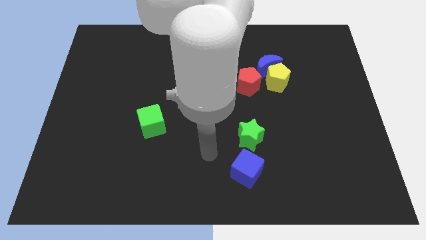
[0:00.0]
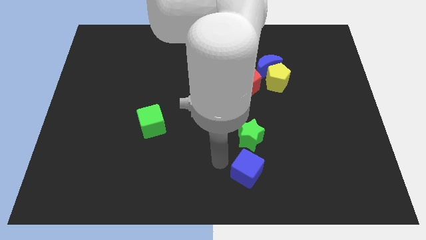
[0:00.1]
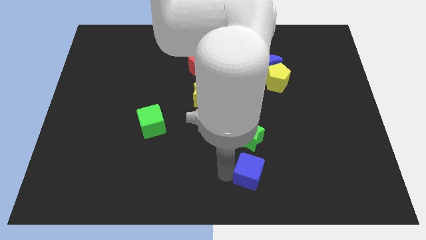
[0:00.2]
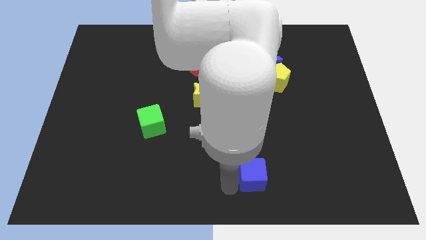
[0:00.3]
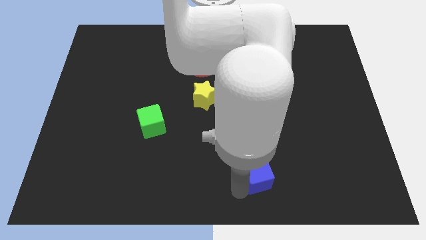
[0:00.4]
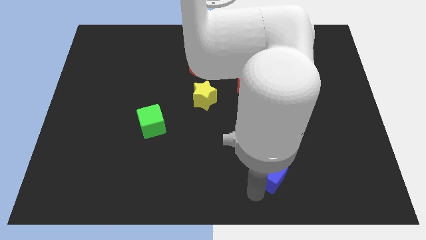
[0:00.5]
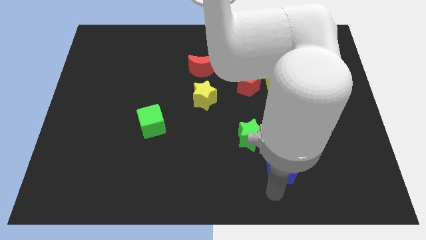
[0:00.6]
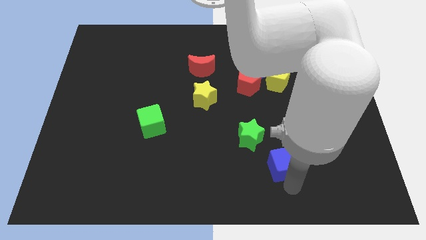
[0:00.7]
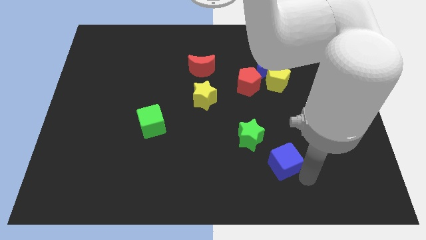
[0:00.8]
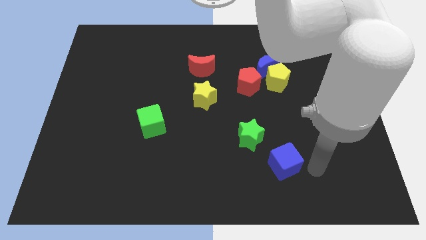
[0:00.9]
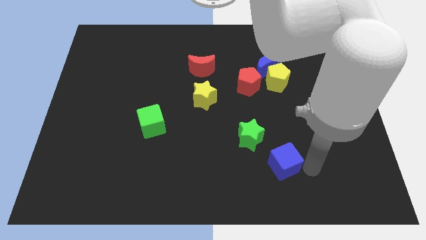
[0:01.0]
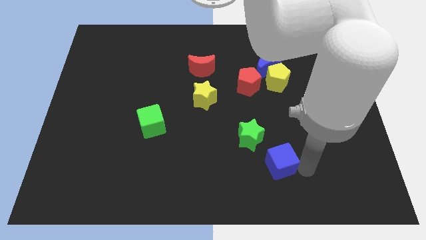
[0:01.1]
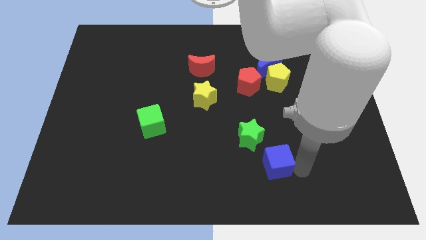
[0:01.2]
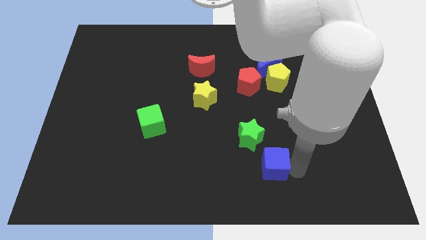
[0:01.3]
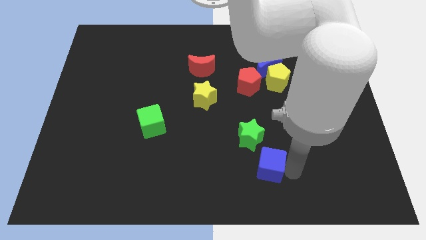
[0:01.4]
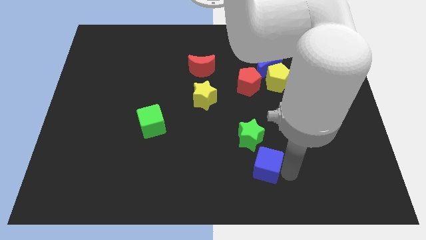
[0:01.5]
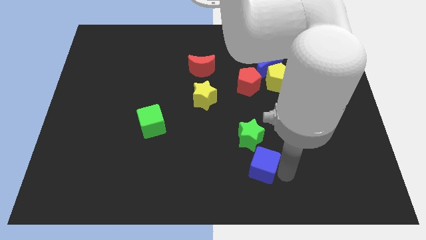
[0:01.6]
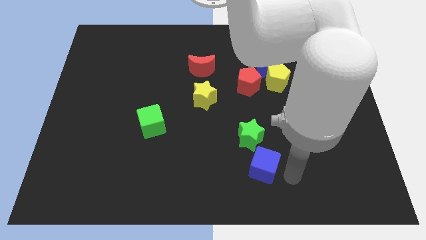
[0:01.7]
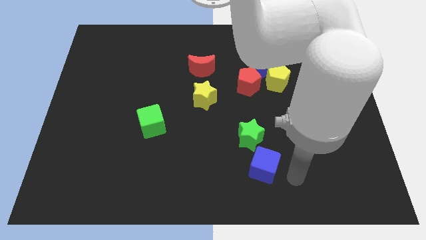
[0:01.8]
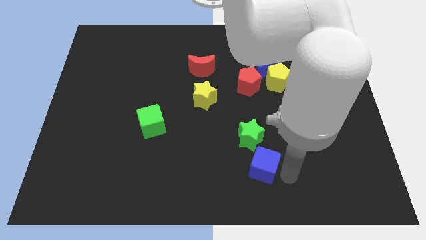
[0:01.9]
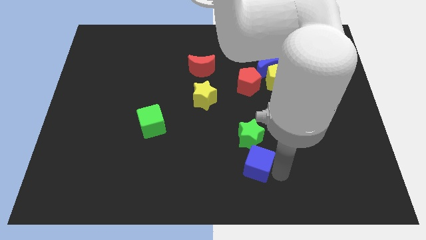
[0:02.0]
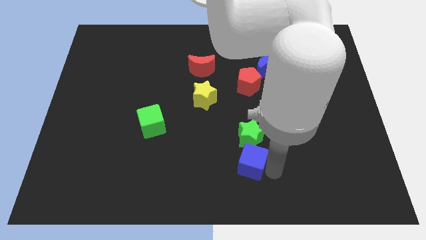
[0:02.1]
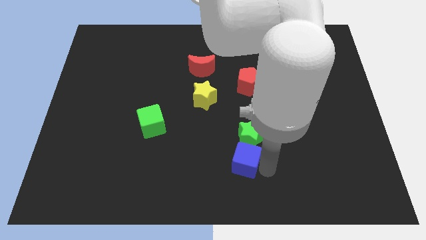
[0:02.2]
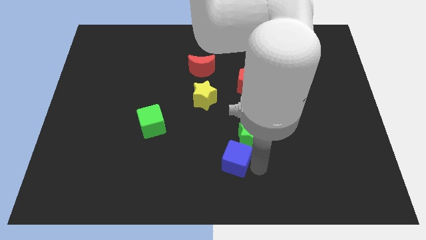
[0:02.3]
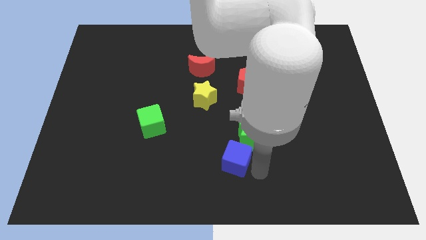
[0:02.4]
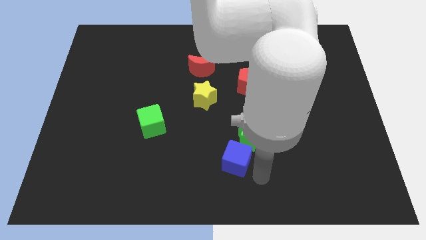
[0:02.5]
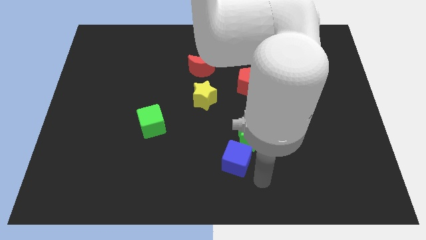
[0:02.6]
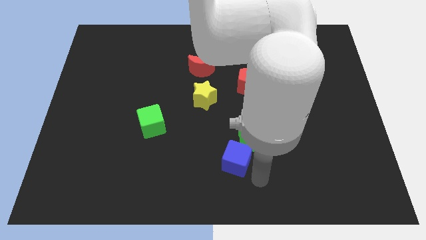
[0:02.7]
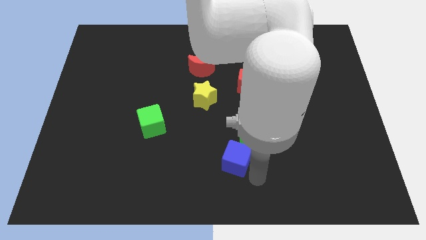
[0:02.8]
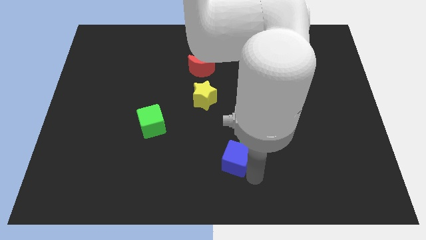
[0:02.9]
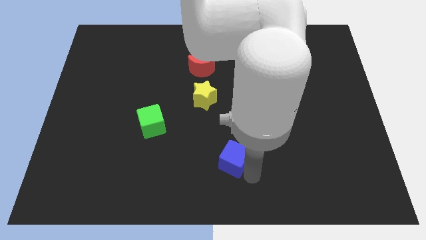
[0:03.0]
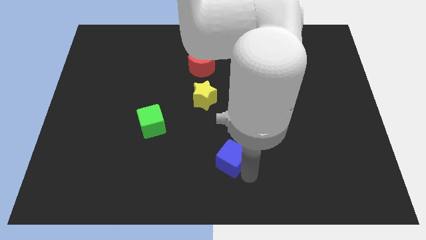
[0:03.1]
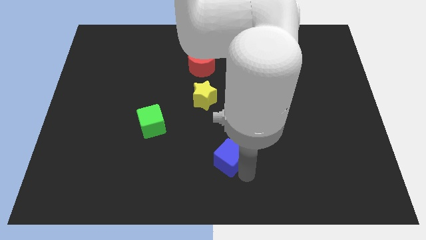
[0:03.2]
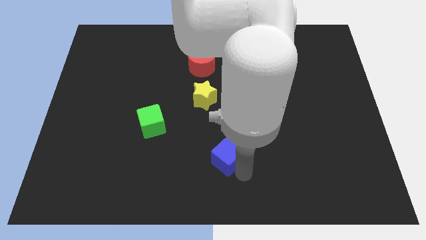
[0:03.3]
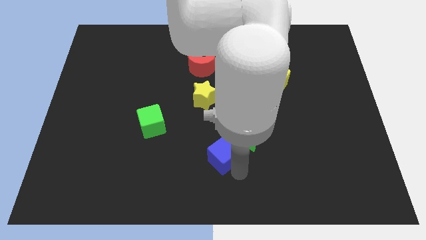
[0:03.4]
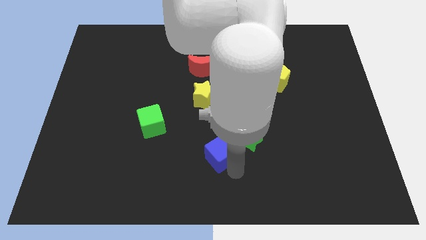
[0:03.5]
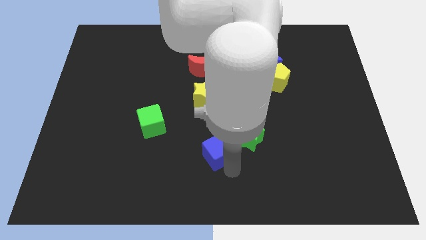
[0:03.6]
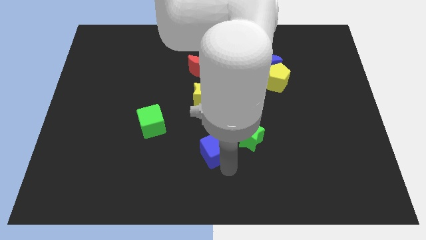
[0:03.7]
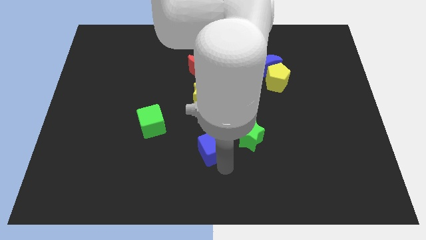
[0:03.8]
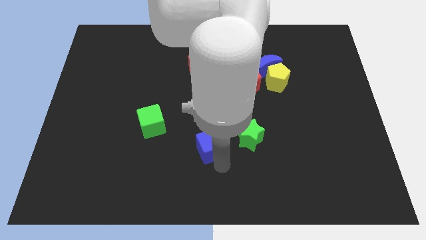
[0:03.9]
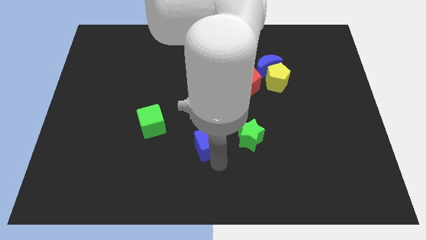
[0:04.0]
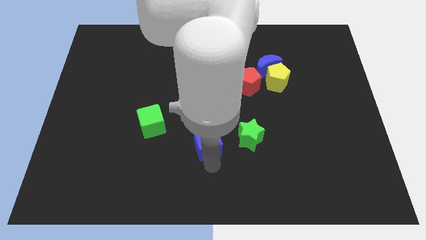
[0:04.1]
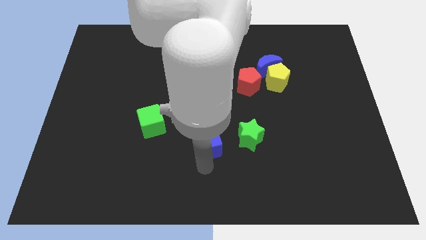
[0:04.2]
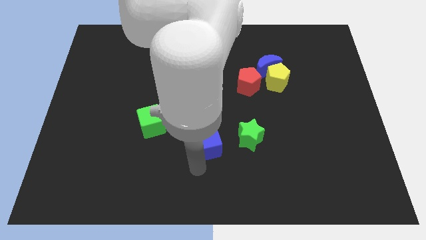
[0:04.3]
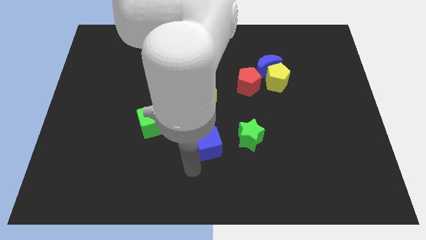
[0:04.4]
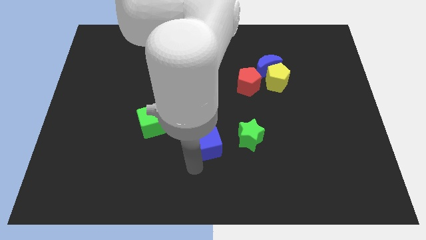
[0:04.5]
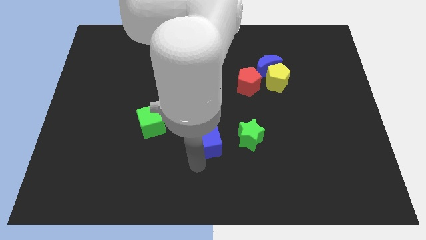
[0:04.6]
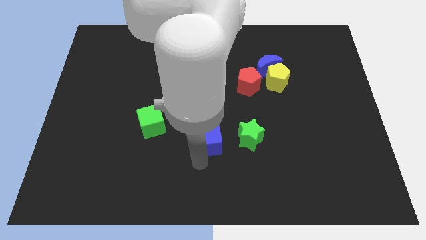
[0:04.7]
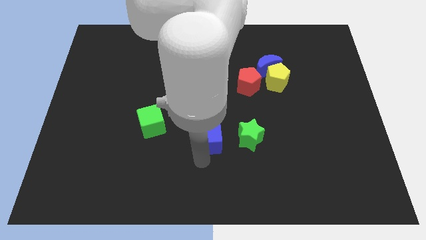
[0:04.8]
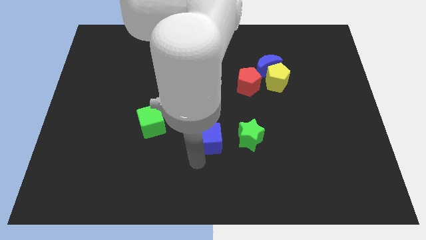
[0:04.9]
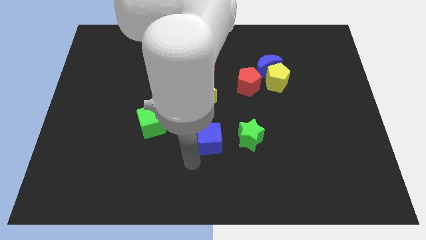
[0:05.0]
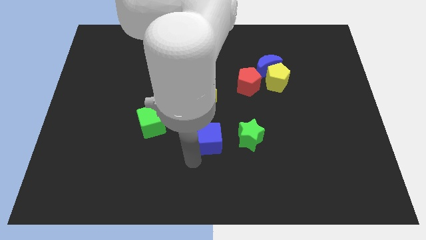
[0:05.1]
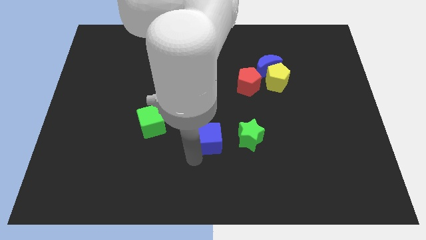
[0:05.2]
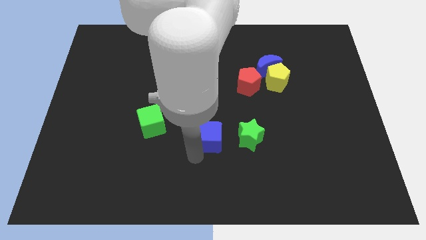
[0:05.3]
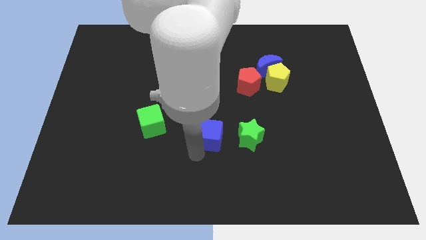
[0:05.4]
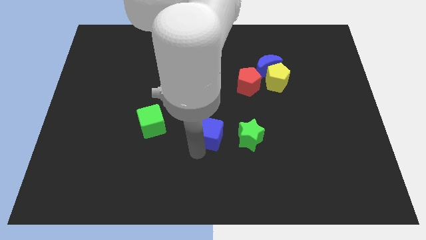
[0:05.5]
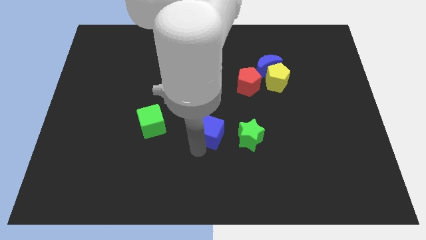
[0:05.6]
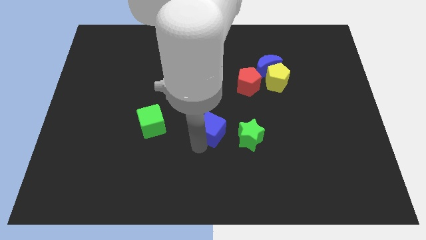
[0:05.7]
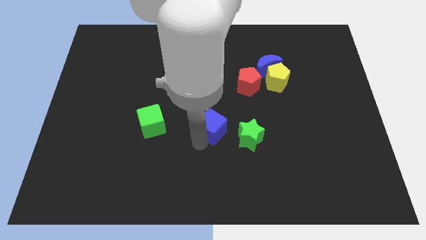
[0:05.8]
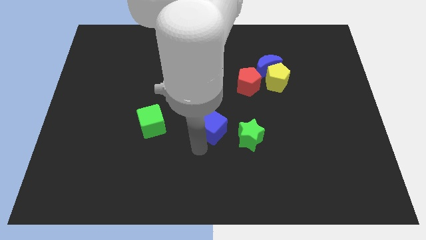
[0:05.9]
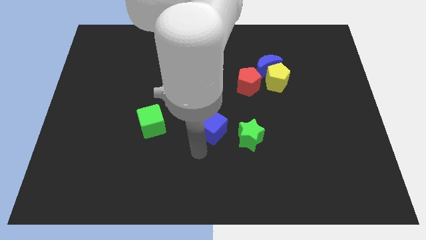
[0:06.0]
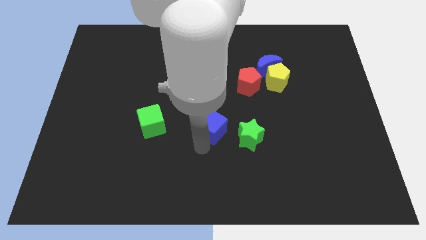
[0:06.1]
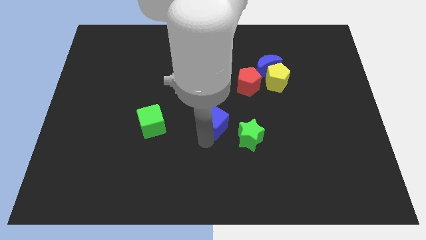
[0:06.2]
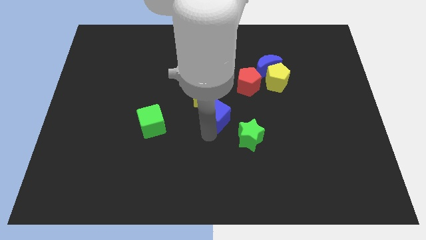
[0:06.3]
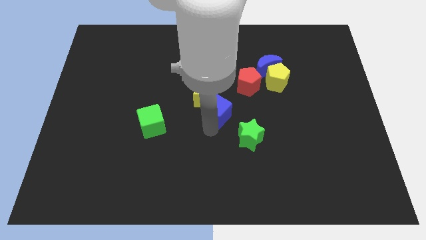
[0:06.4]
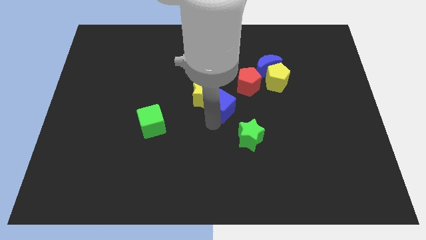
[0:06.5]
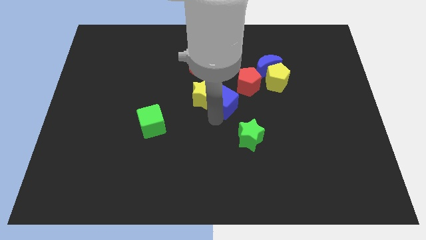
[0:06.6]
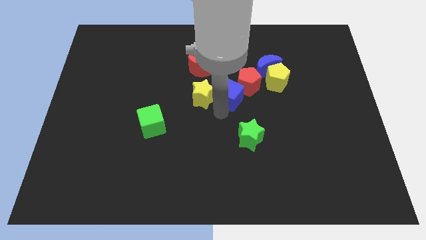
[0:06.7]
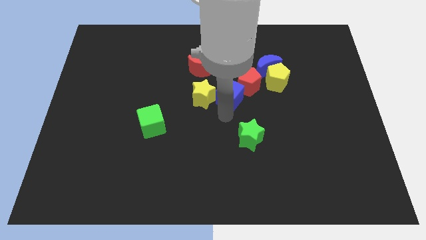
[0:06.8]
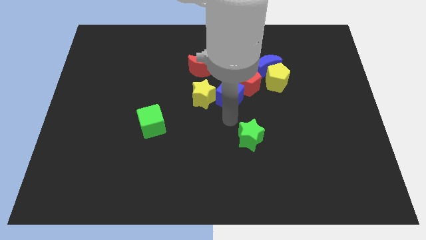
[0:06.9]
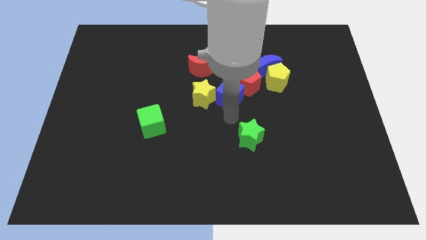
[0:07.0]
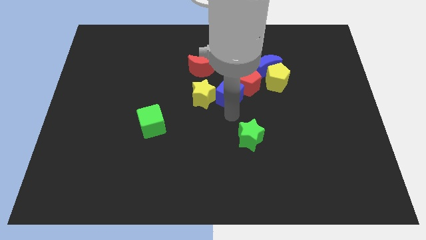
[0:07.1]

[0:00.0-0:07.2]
move the blue cube up

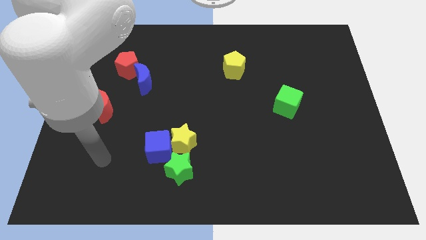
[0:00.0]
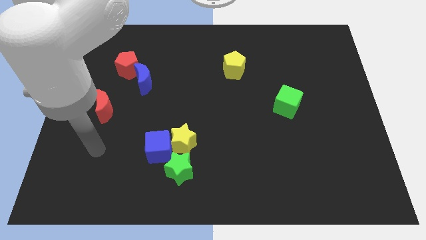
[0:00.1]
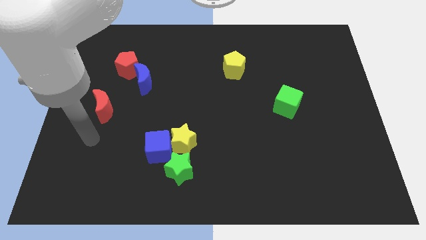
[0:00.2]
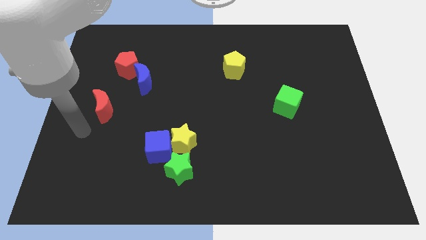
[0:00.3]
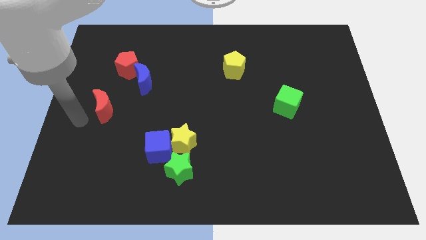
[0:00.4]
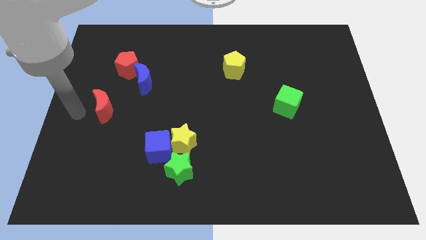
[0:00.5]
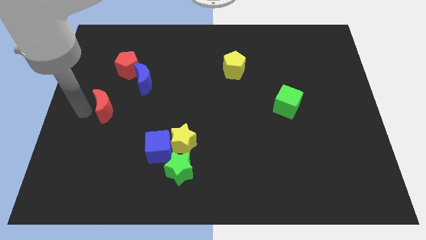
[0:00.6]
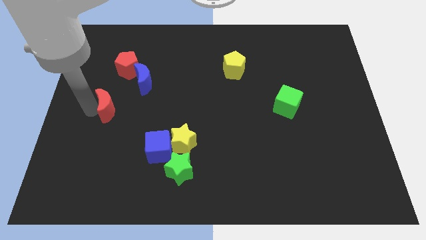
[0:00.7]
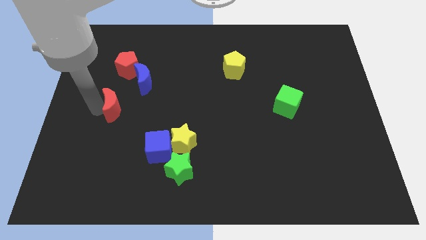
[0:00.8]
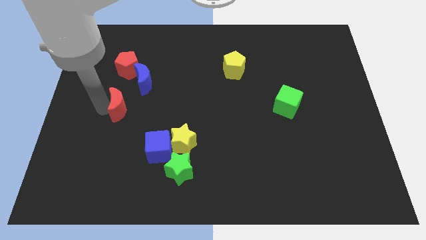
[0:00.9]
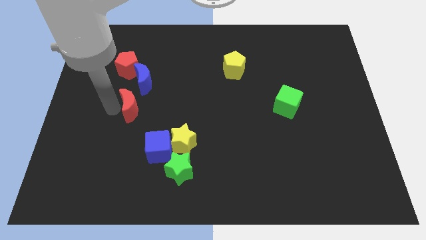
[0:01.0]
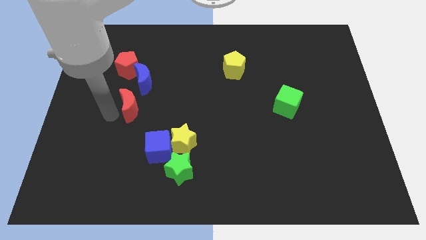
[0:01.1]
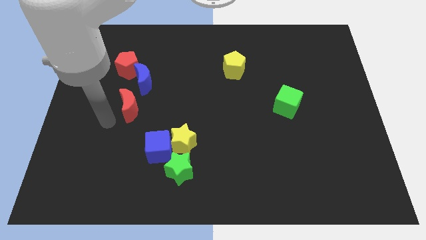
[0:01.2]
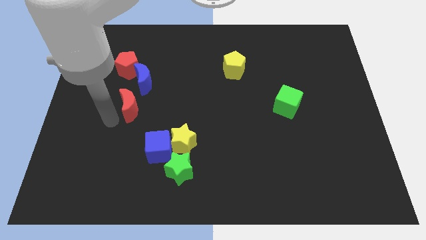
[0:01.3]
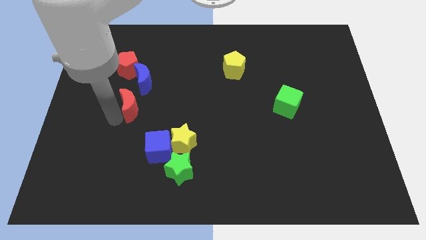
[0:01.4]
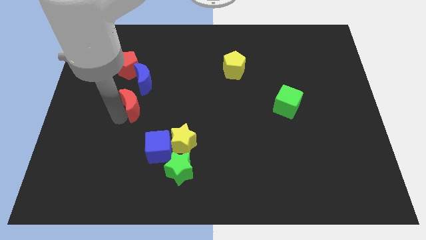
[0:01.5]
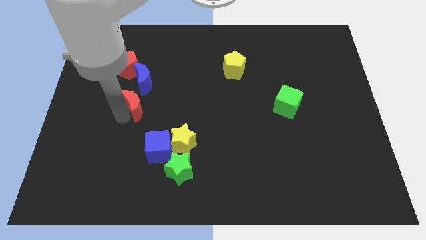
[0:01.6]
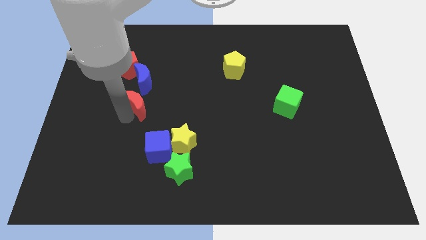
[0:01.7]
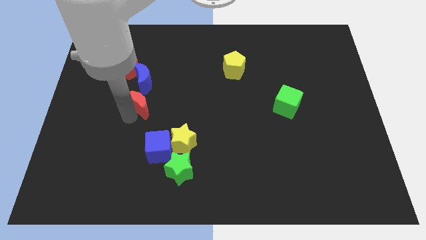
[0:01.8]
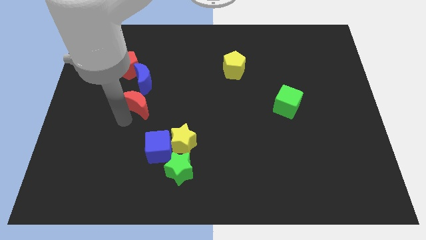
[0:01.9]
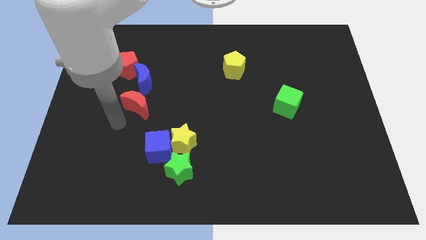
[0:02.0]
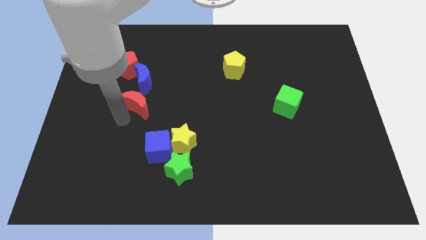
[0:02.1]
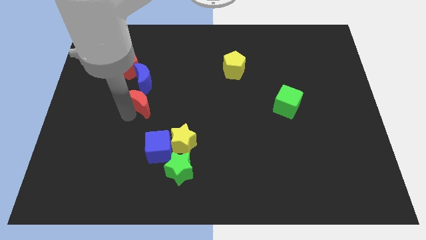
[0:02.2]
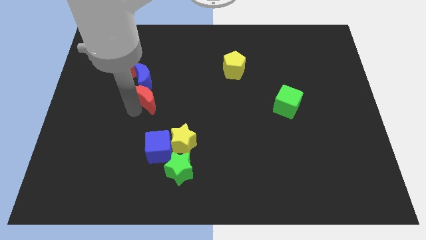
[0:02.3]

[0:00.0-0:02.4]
slide the red moon up and then right a little
